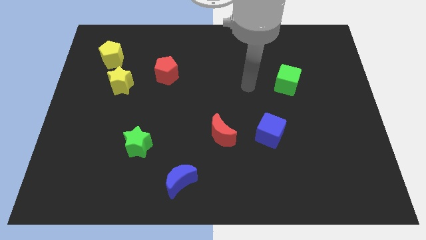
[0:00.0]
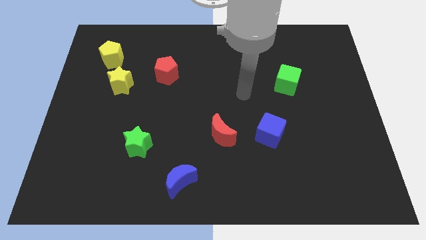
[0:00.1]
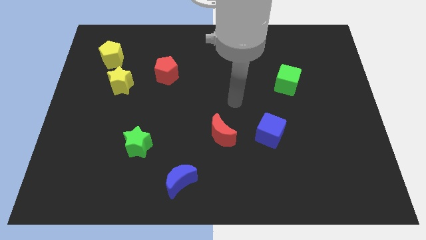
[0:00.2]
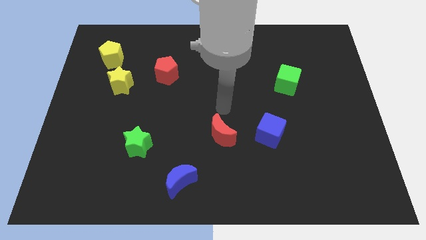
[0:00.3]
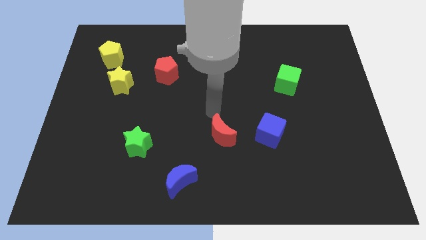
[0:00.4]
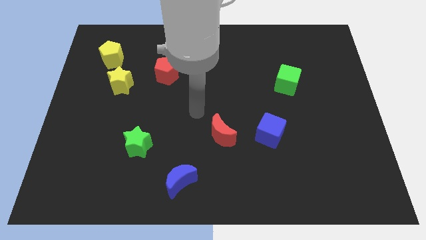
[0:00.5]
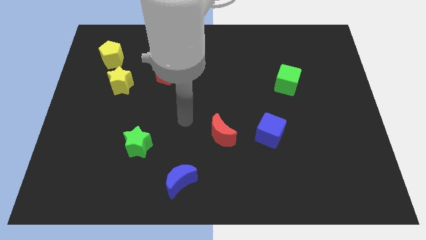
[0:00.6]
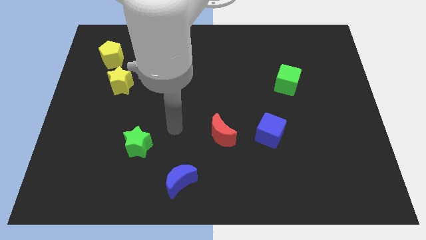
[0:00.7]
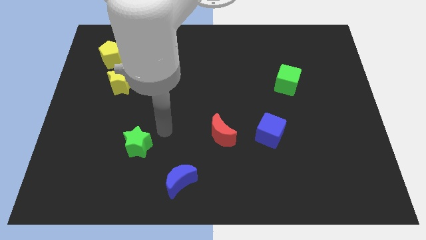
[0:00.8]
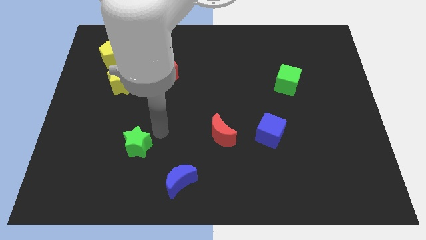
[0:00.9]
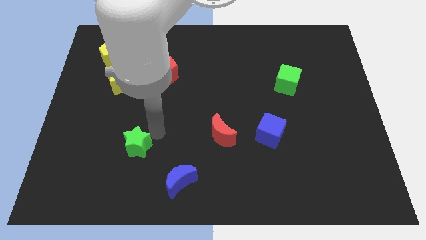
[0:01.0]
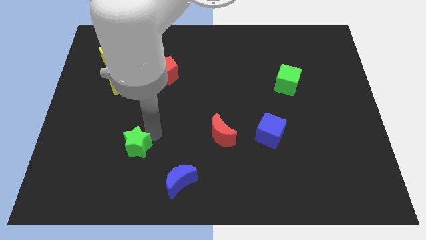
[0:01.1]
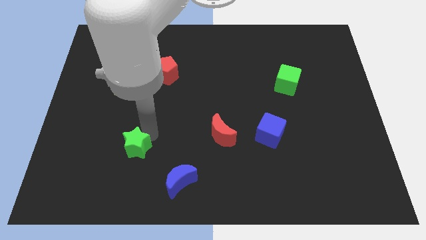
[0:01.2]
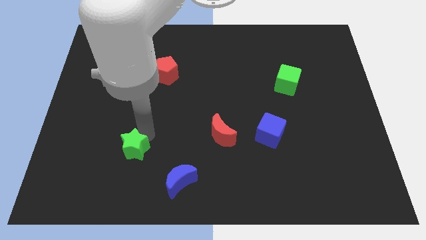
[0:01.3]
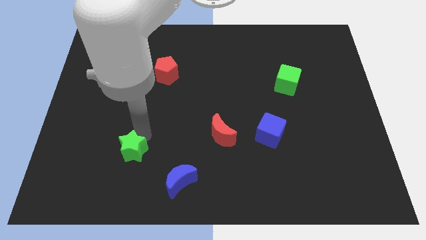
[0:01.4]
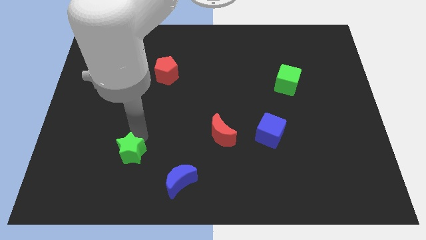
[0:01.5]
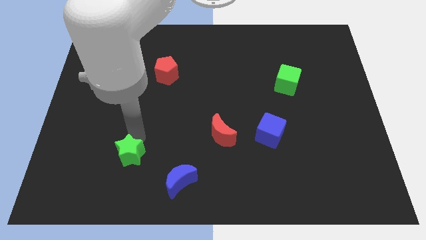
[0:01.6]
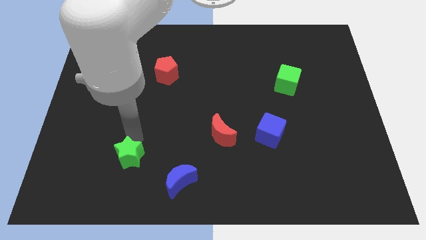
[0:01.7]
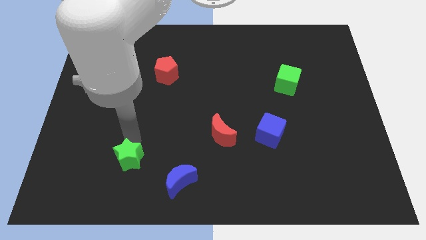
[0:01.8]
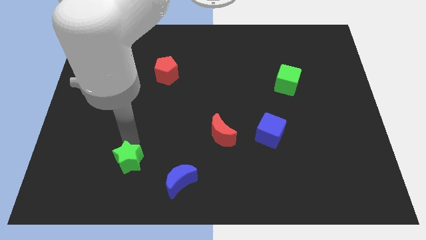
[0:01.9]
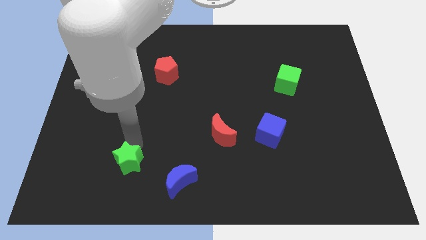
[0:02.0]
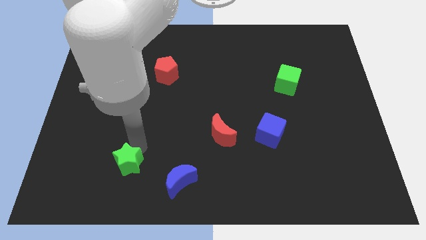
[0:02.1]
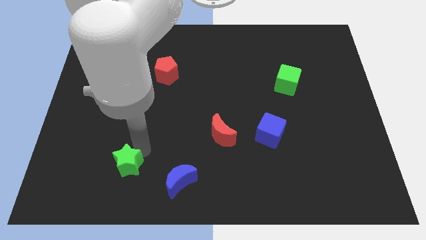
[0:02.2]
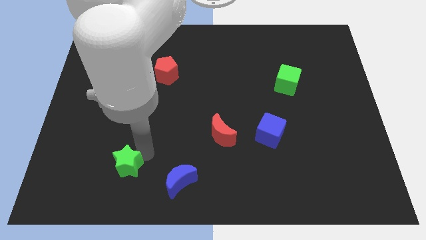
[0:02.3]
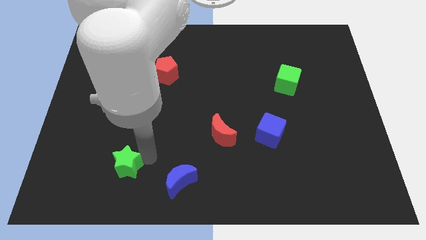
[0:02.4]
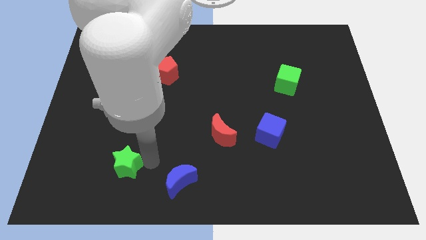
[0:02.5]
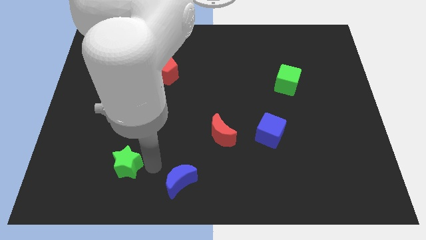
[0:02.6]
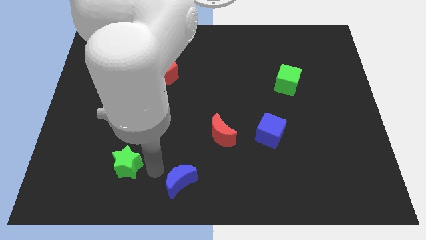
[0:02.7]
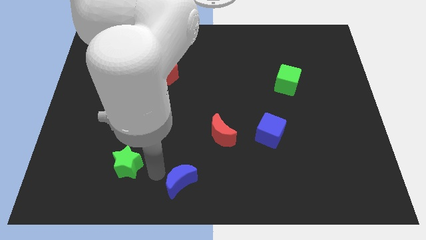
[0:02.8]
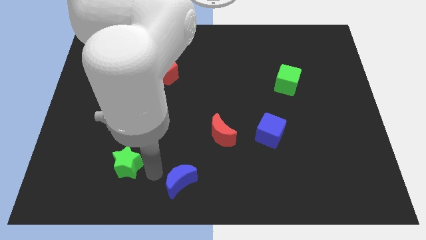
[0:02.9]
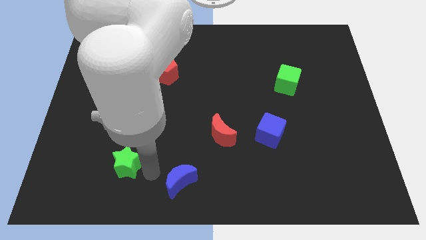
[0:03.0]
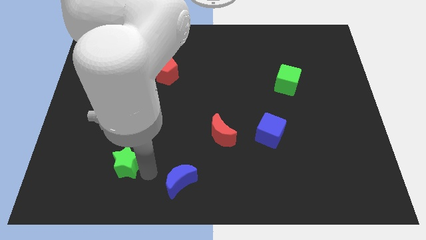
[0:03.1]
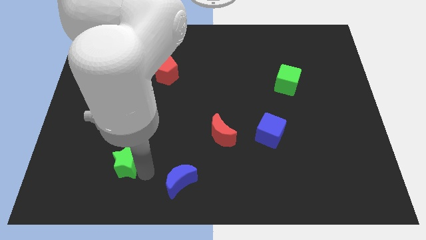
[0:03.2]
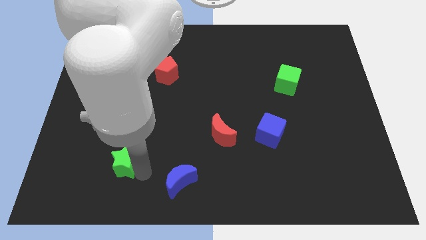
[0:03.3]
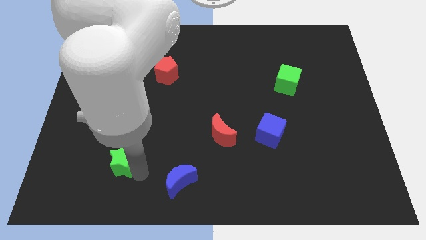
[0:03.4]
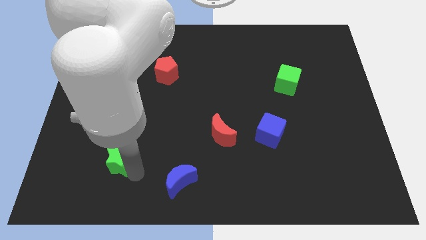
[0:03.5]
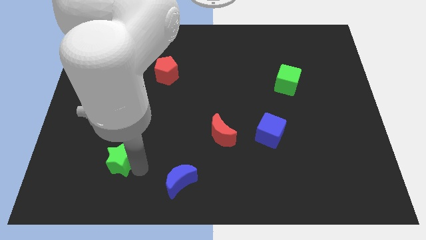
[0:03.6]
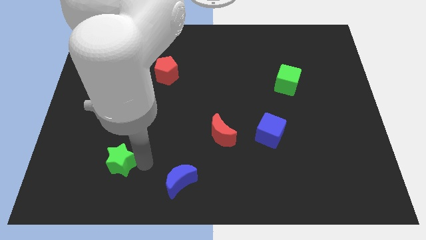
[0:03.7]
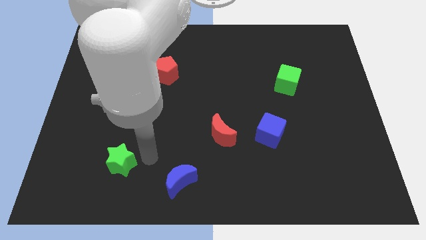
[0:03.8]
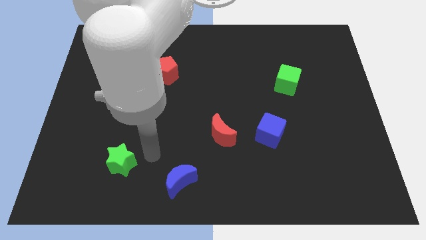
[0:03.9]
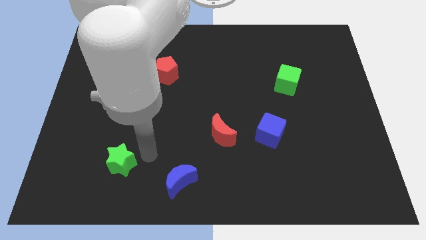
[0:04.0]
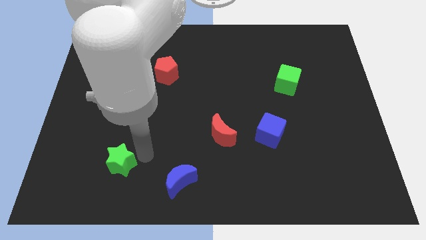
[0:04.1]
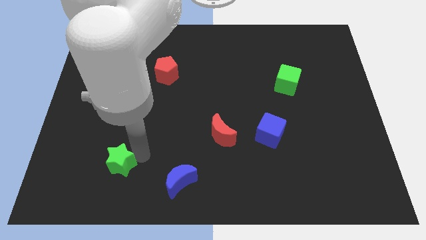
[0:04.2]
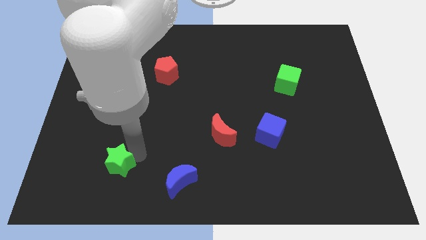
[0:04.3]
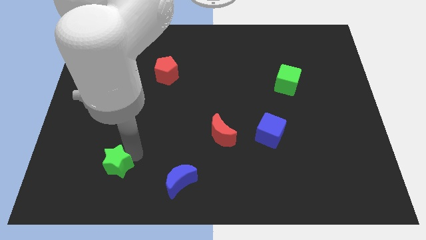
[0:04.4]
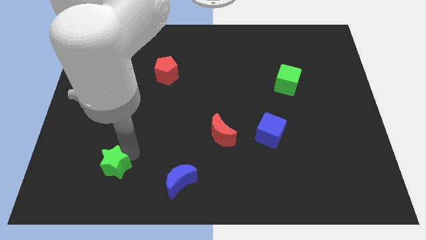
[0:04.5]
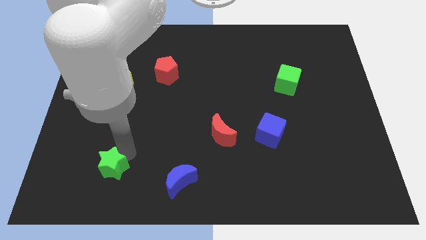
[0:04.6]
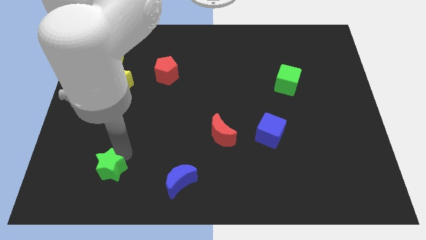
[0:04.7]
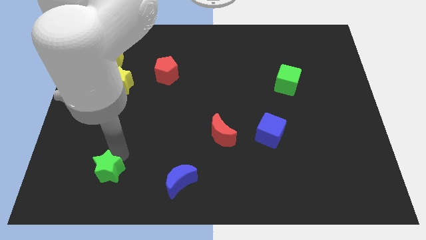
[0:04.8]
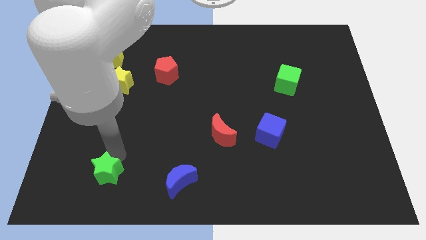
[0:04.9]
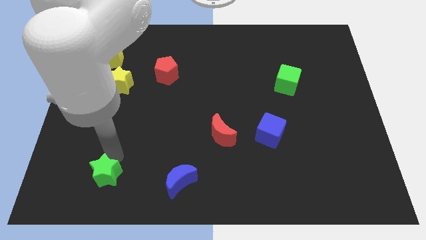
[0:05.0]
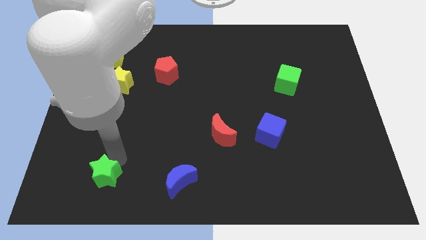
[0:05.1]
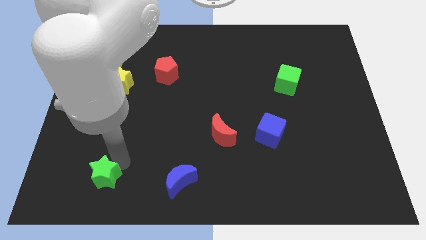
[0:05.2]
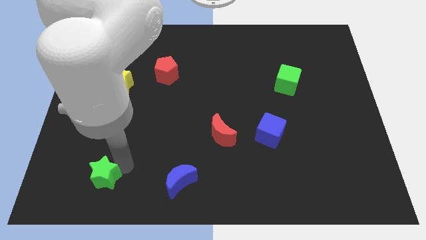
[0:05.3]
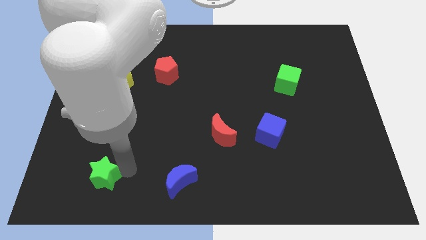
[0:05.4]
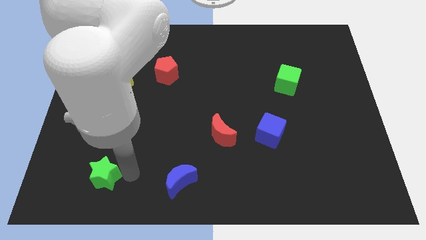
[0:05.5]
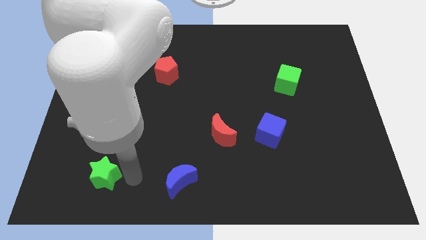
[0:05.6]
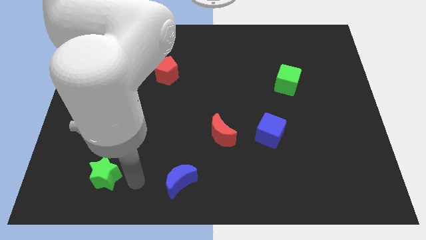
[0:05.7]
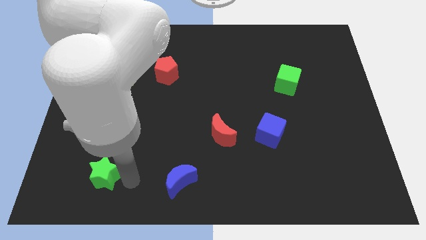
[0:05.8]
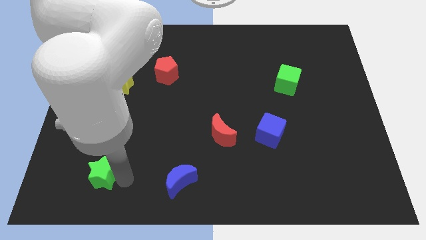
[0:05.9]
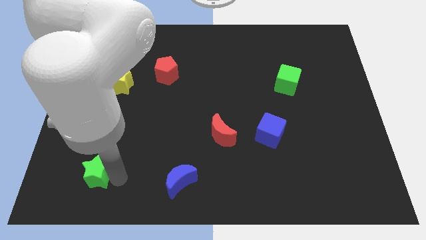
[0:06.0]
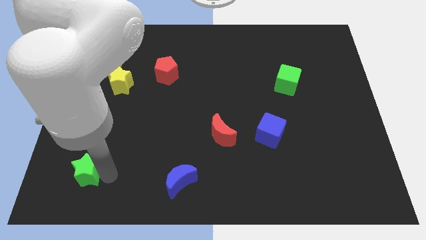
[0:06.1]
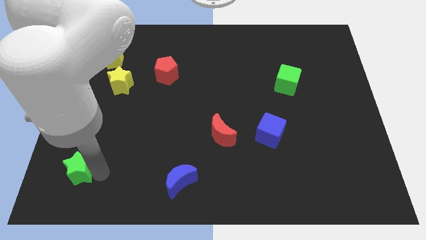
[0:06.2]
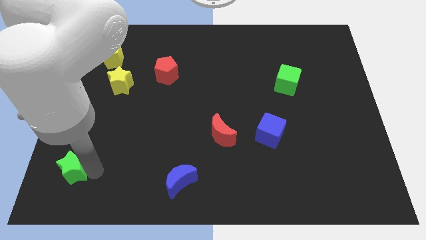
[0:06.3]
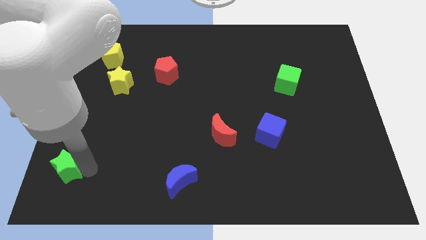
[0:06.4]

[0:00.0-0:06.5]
push the green star to the bottom left corner
